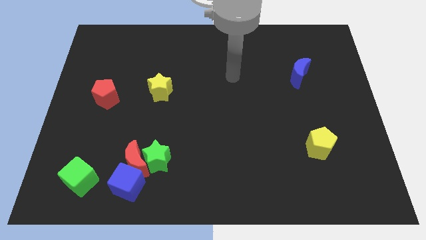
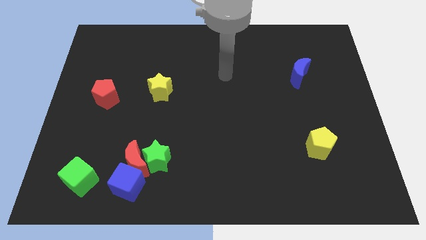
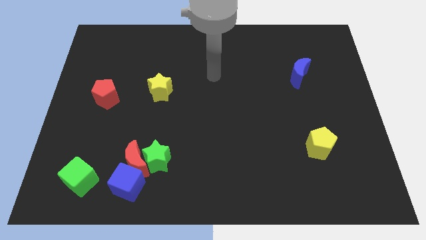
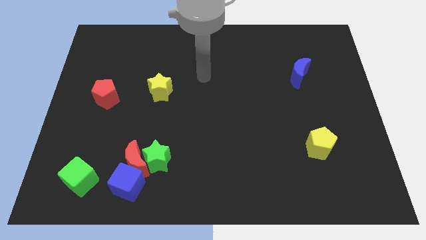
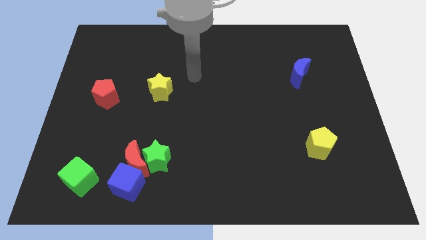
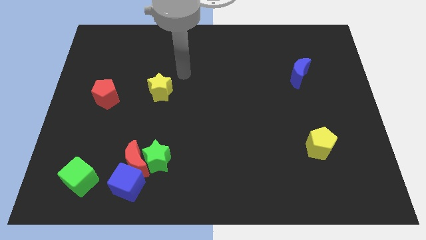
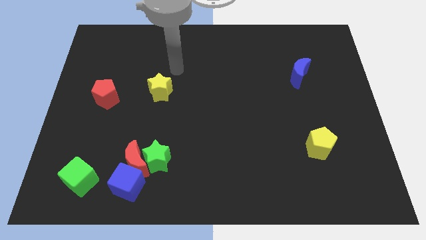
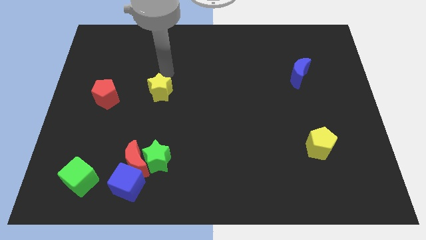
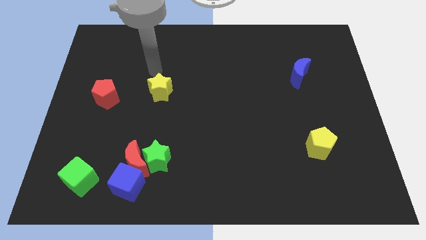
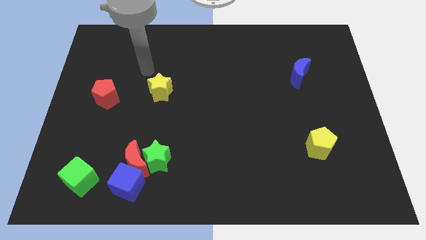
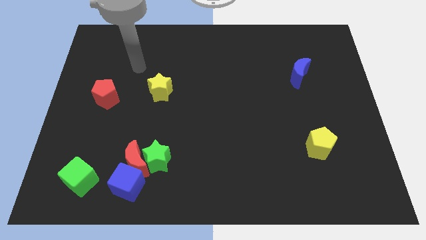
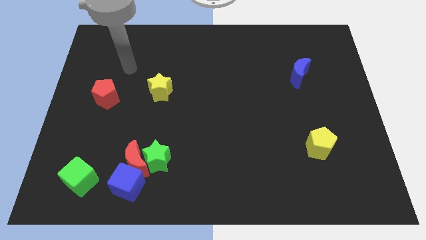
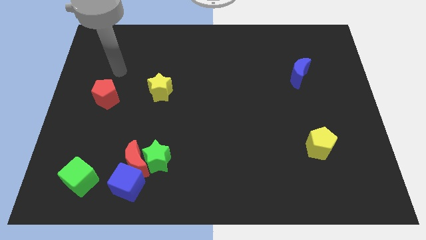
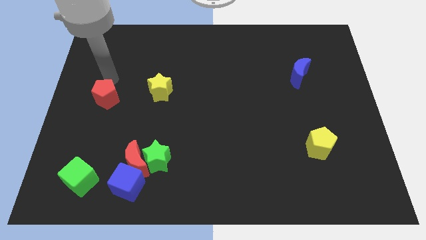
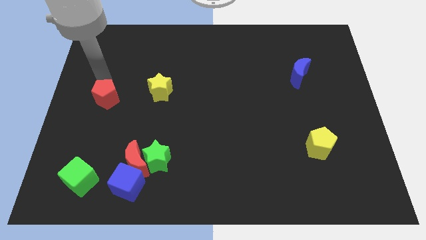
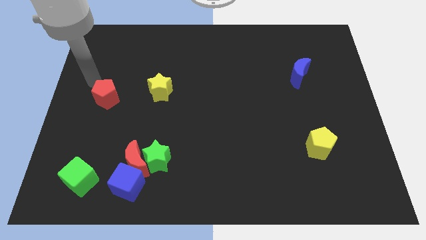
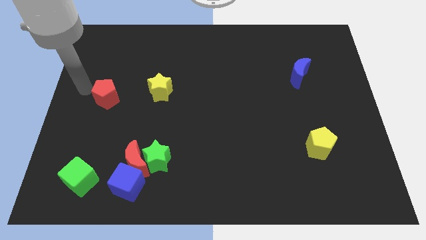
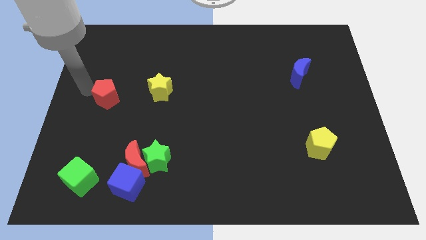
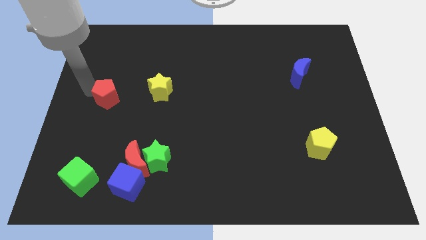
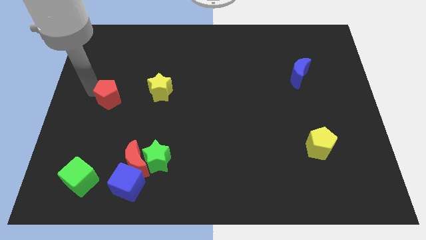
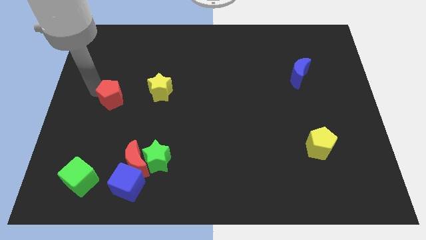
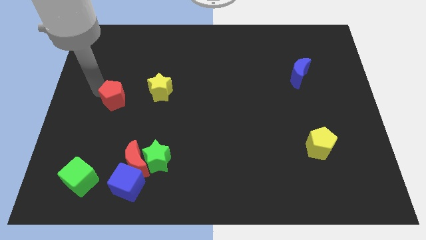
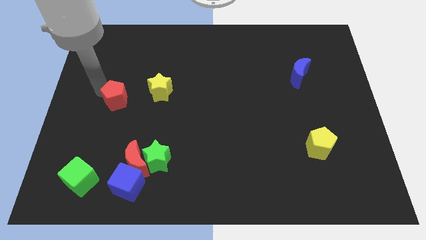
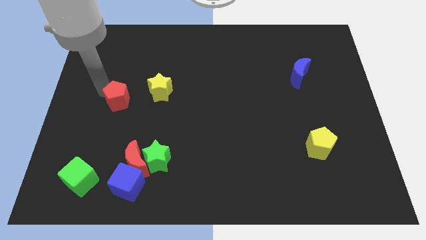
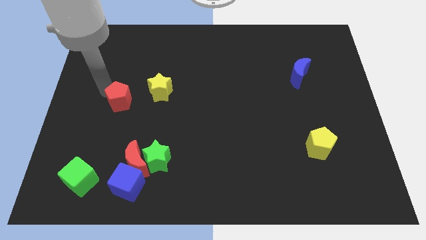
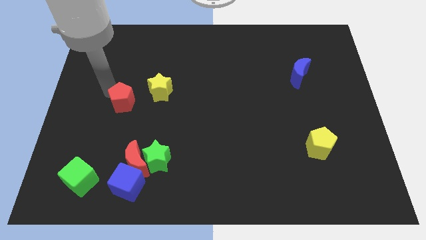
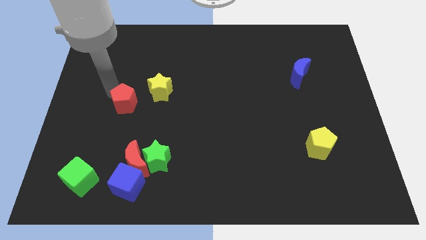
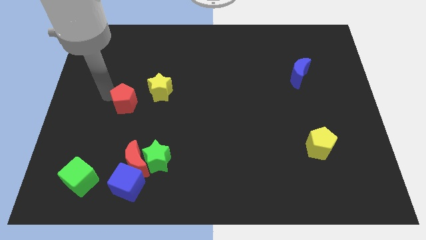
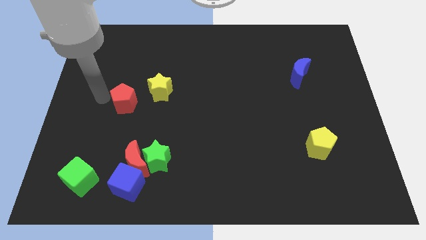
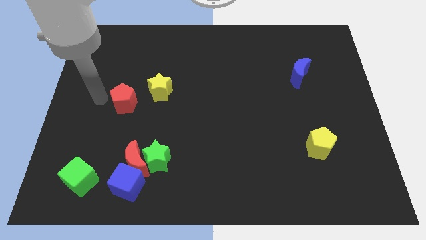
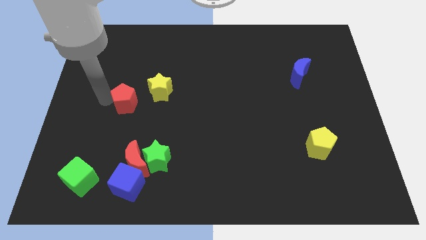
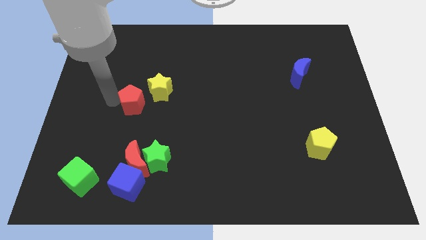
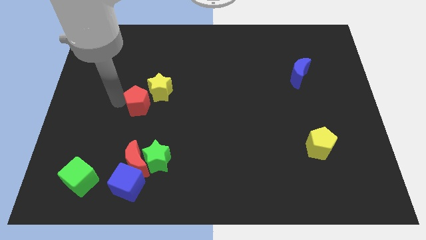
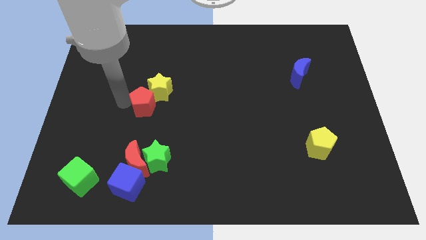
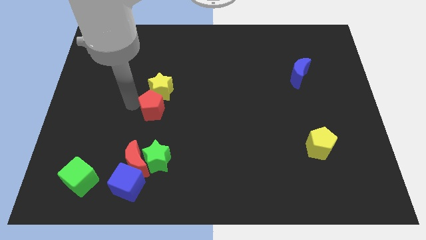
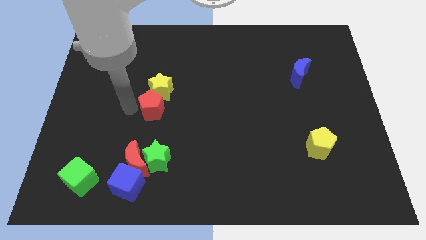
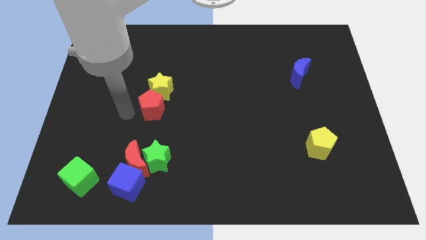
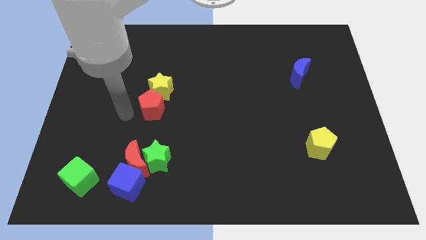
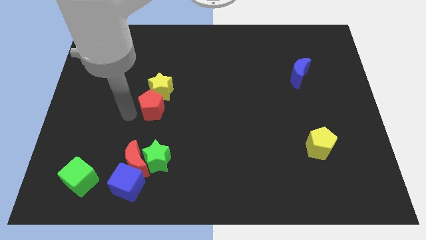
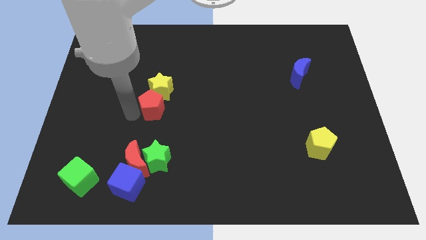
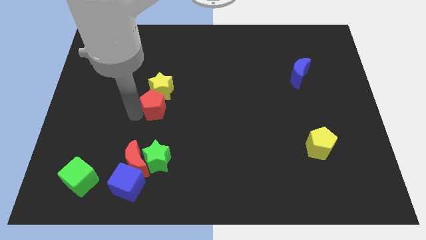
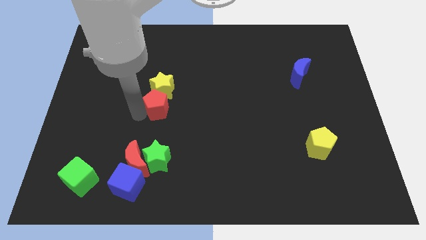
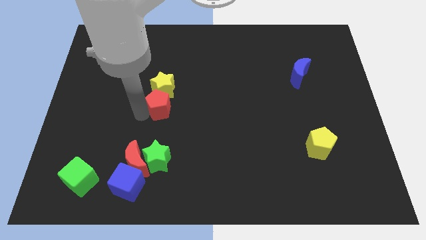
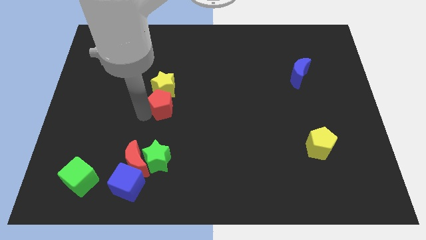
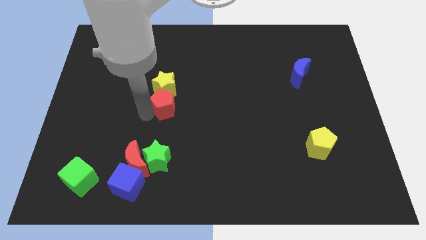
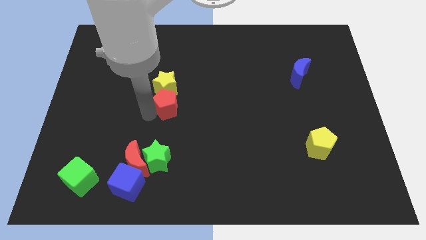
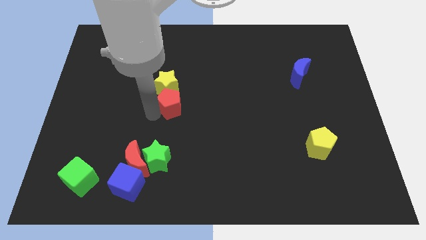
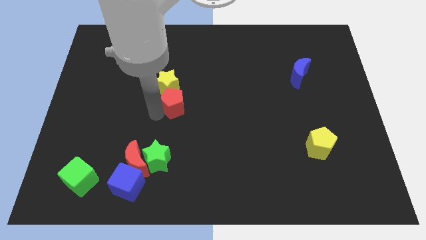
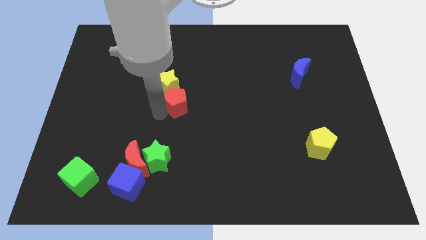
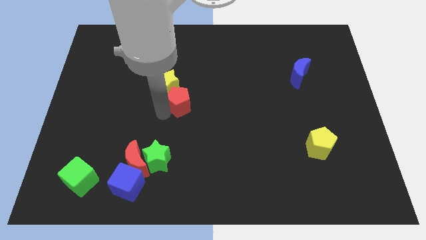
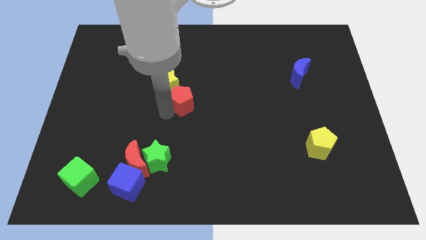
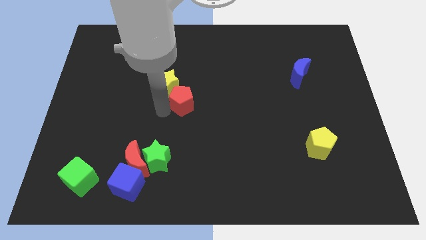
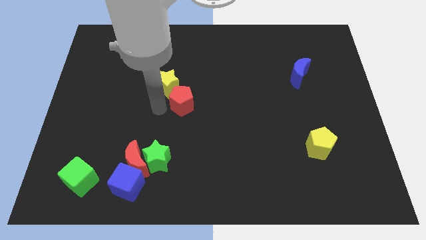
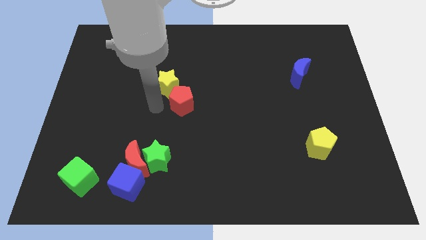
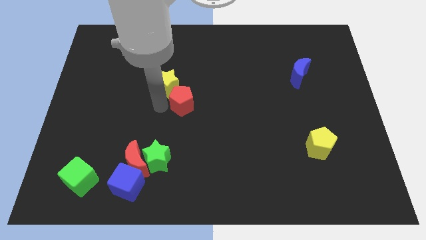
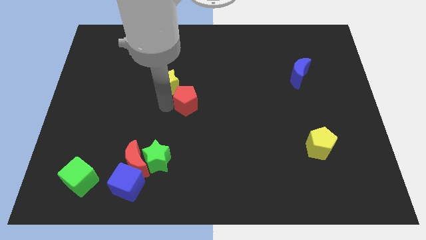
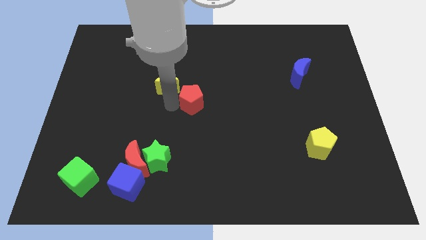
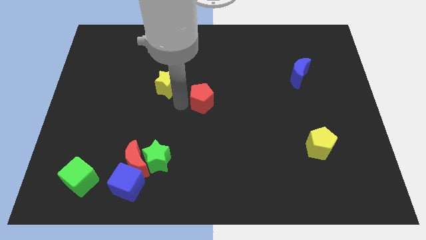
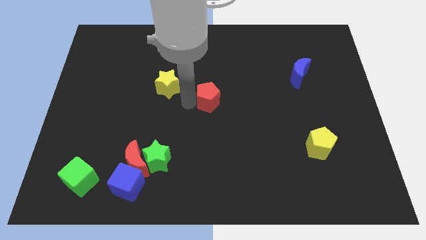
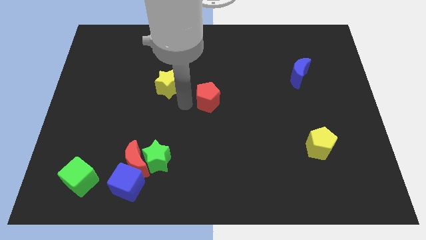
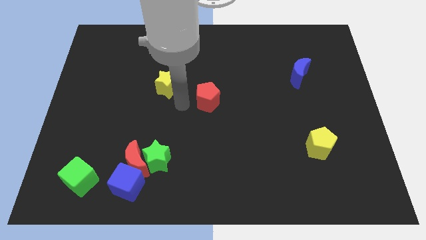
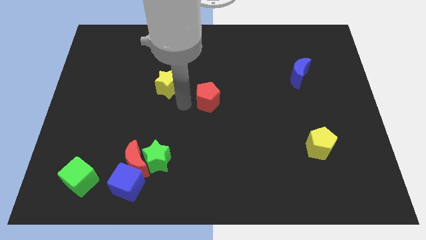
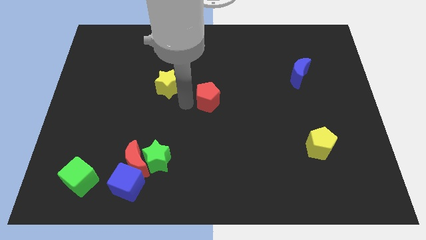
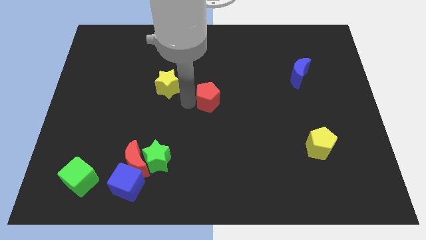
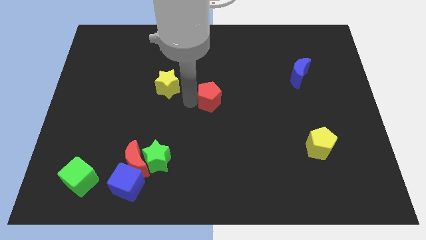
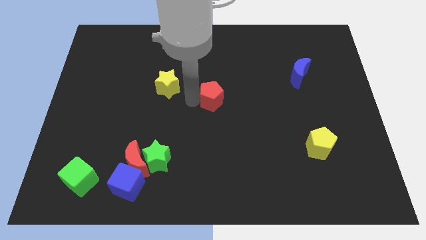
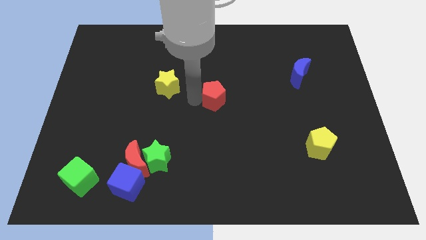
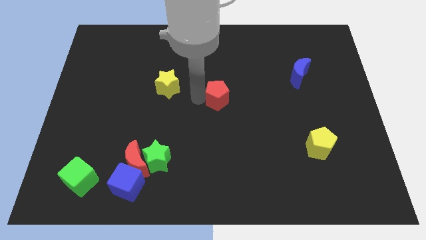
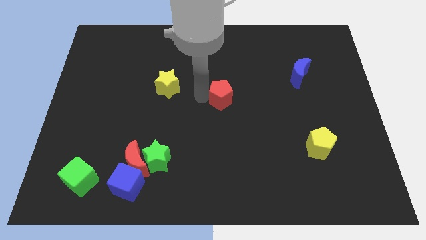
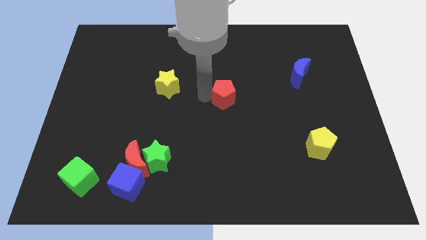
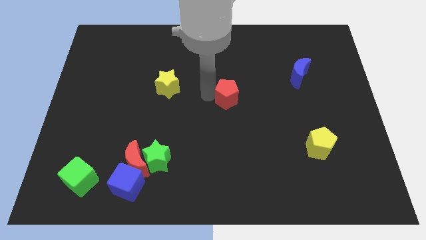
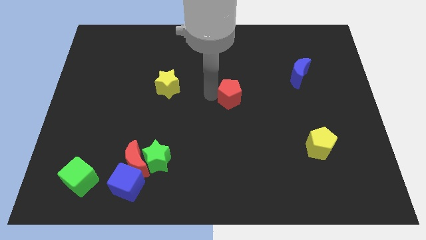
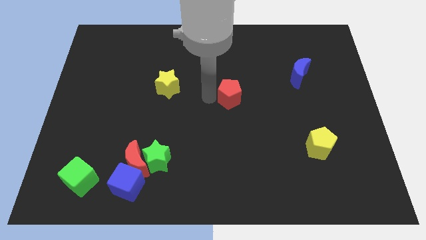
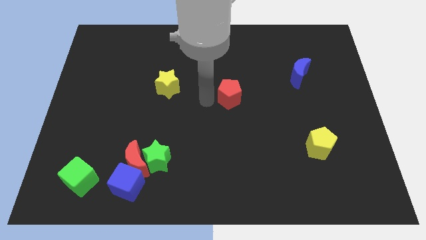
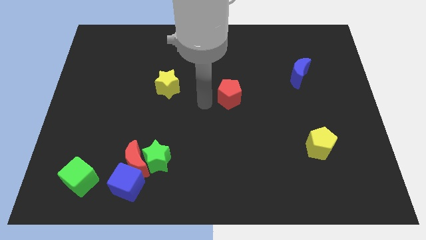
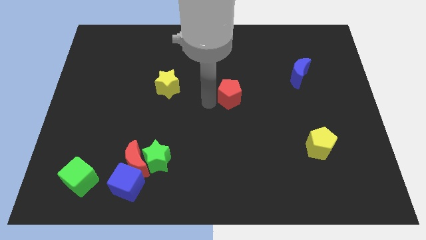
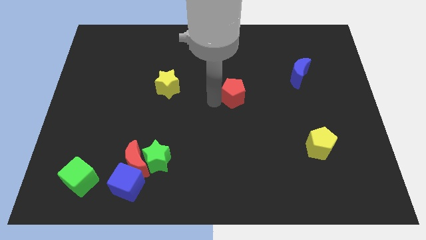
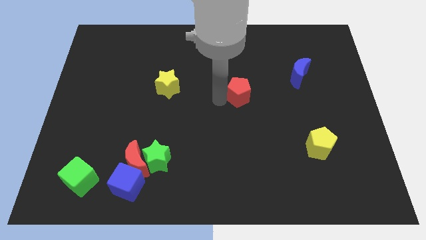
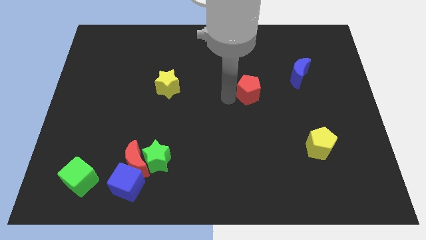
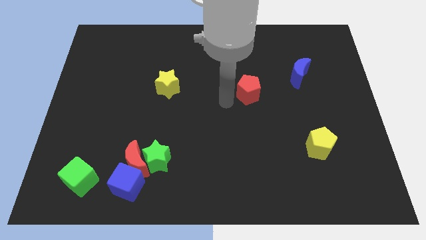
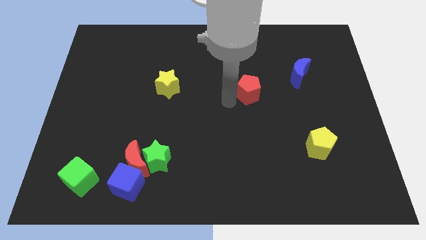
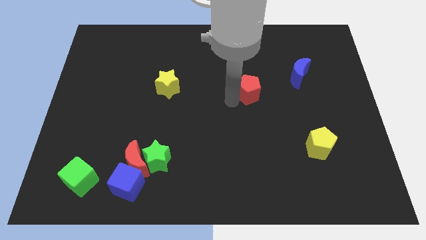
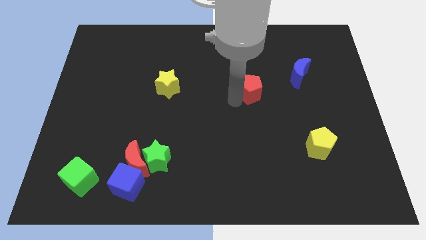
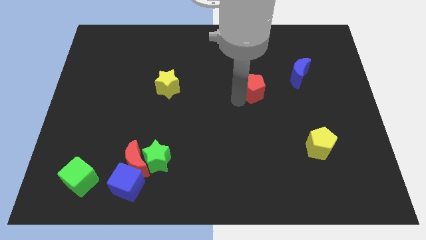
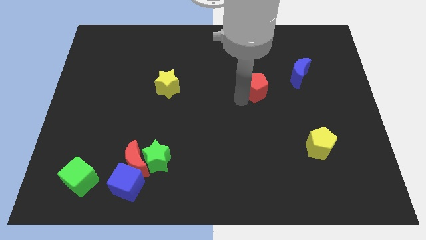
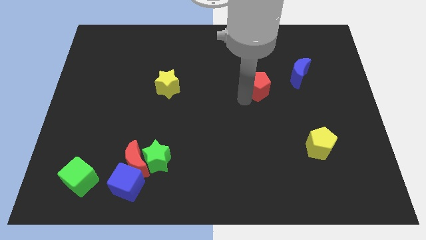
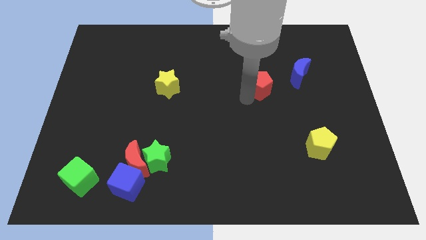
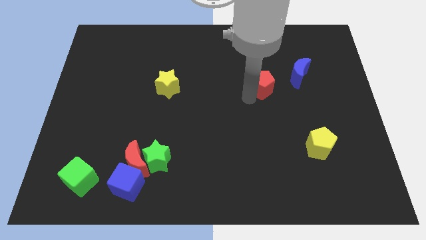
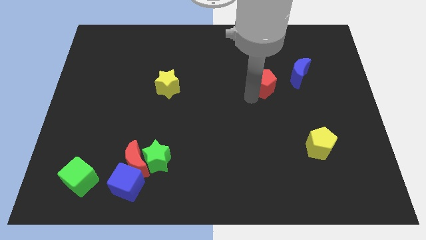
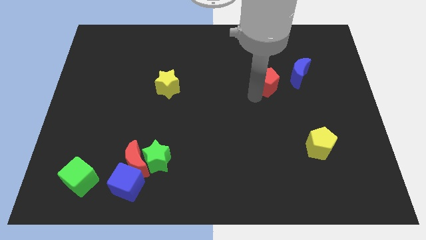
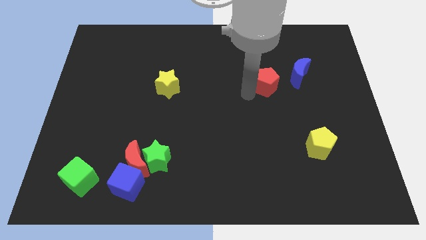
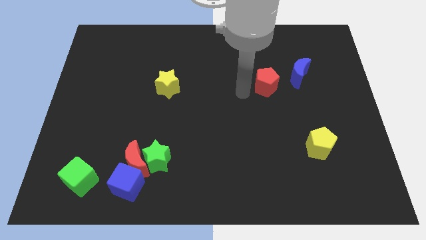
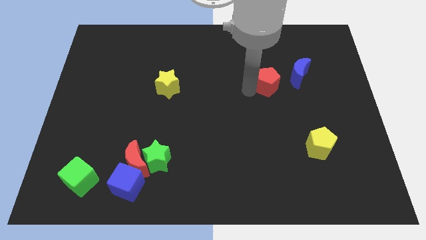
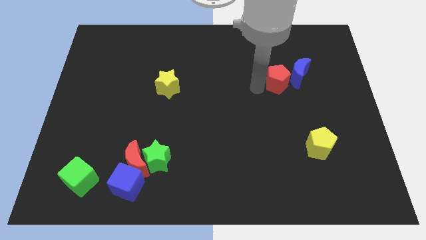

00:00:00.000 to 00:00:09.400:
put the red pentagon next to the blue moon
